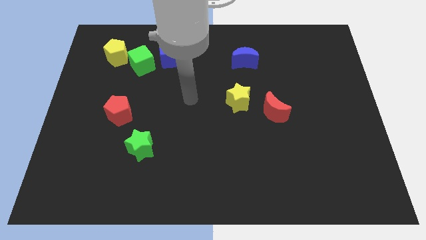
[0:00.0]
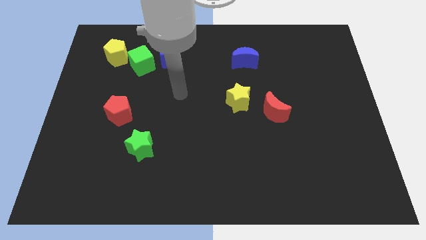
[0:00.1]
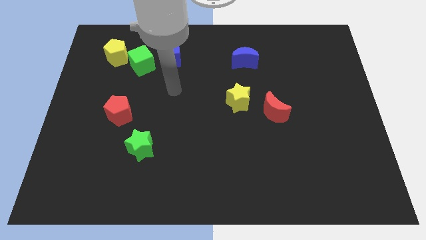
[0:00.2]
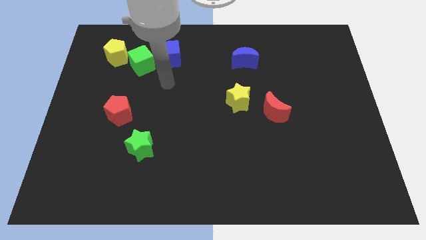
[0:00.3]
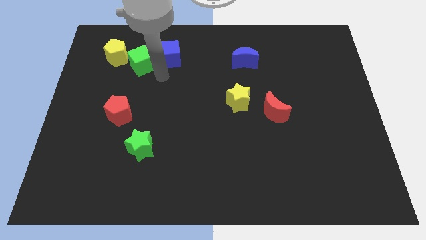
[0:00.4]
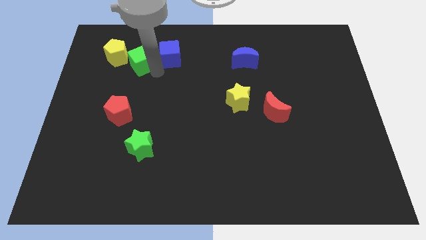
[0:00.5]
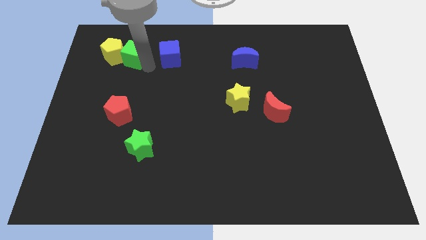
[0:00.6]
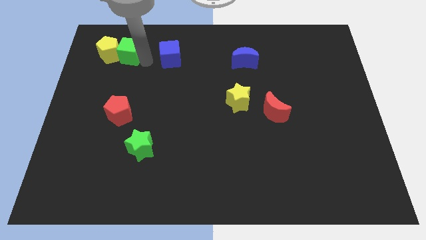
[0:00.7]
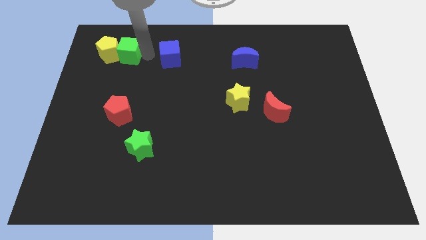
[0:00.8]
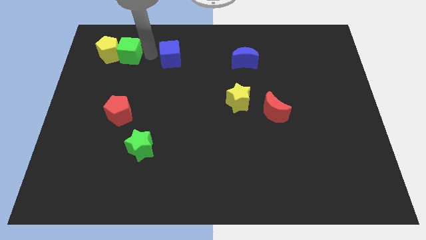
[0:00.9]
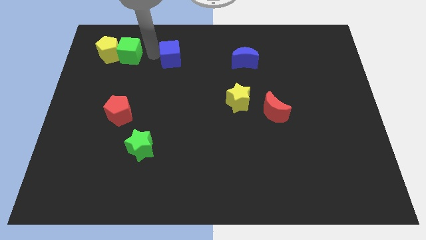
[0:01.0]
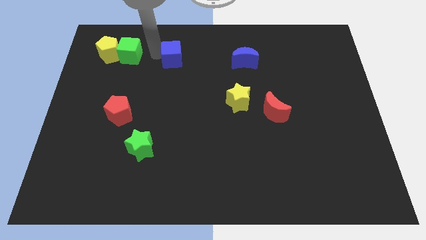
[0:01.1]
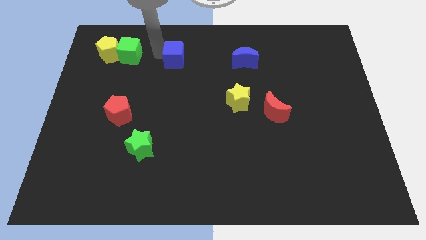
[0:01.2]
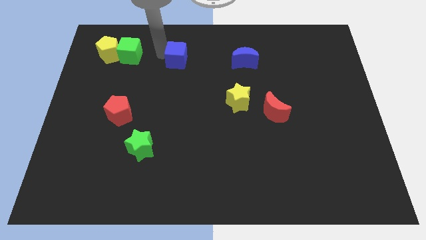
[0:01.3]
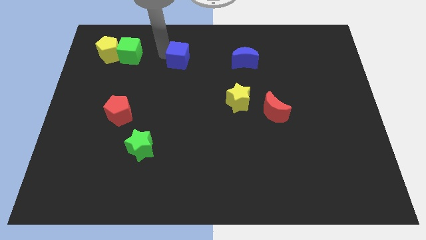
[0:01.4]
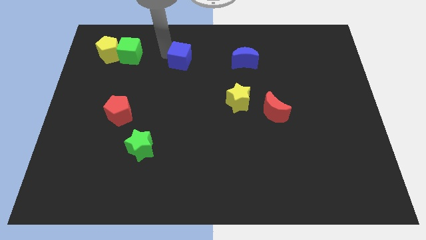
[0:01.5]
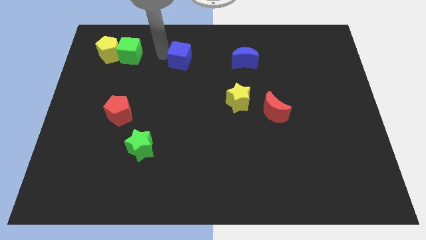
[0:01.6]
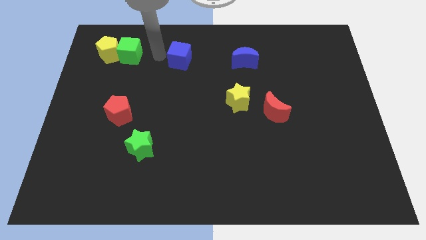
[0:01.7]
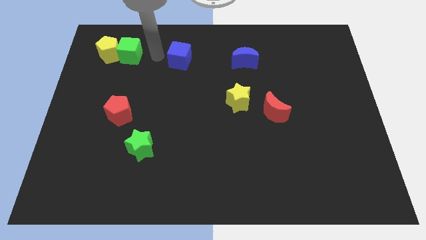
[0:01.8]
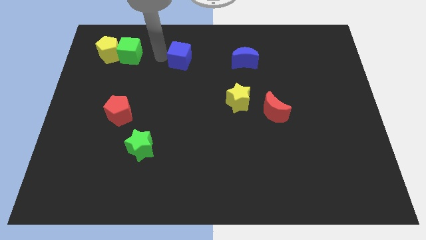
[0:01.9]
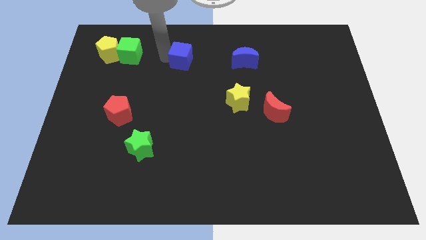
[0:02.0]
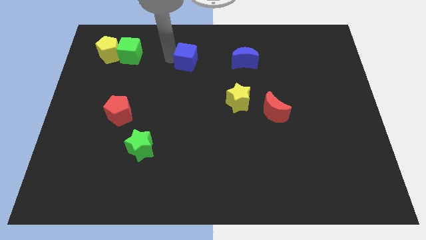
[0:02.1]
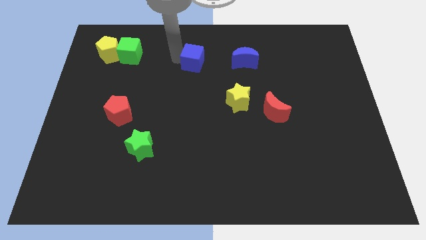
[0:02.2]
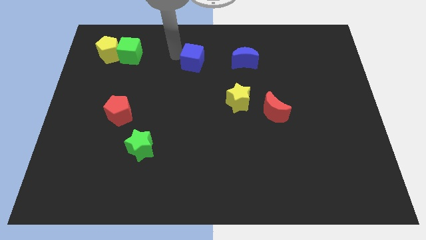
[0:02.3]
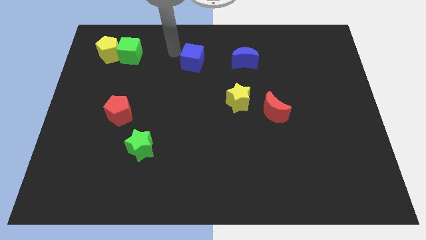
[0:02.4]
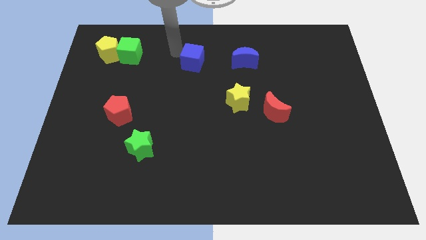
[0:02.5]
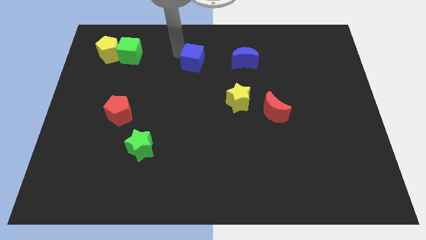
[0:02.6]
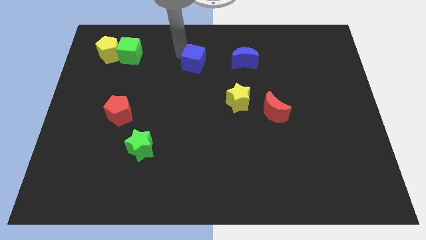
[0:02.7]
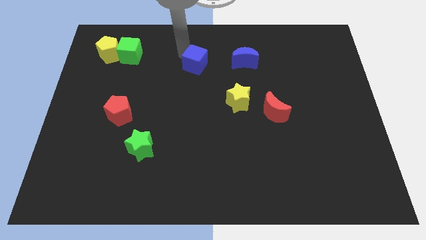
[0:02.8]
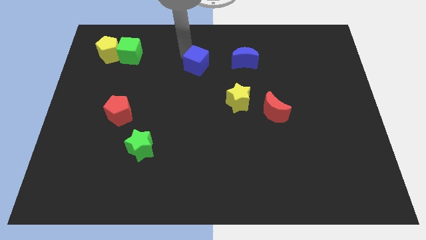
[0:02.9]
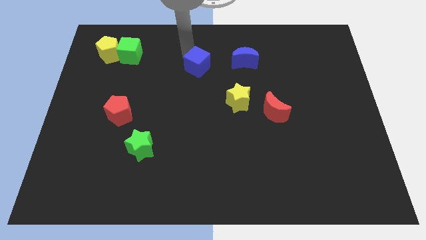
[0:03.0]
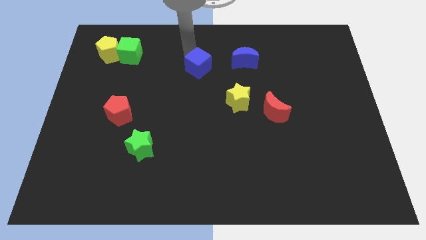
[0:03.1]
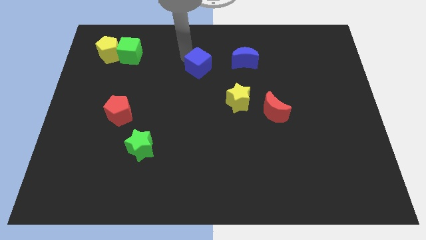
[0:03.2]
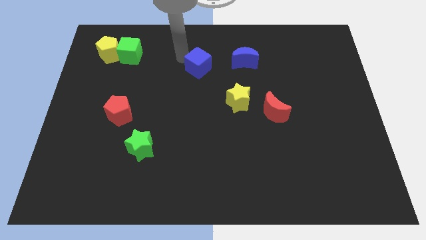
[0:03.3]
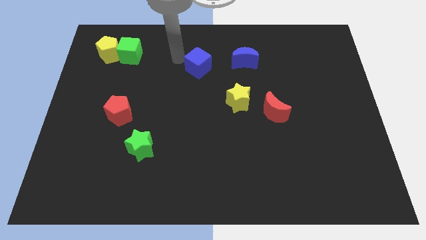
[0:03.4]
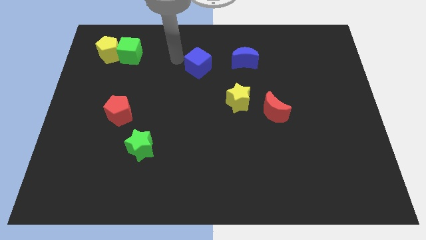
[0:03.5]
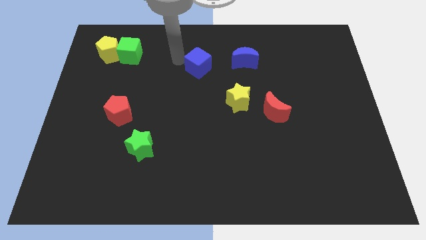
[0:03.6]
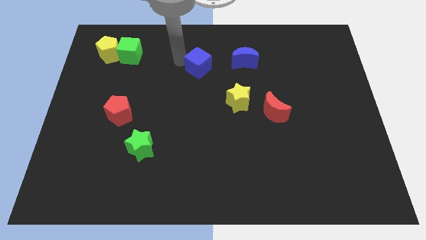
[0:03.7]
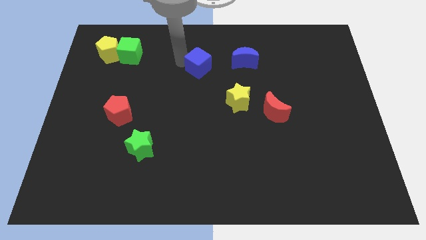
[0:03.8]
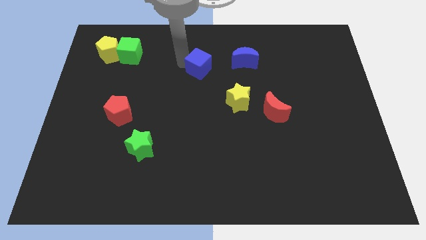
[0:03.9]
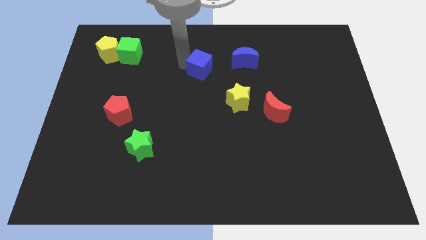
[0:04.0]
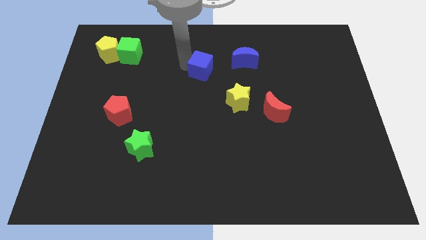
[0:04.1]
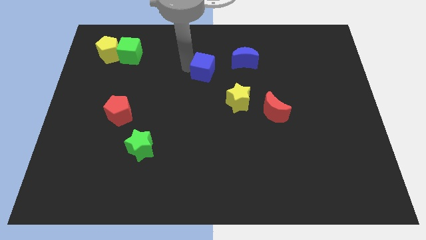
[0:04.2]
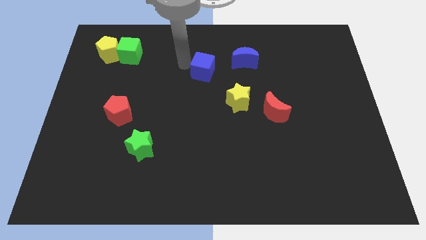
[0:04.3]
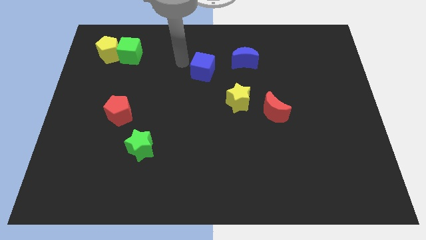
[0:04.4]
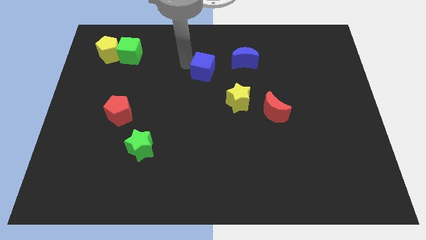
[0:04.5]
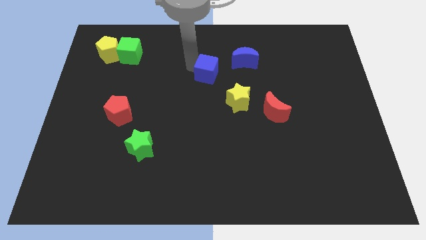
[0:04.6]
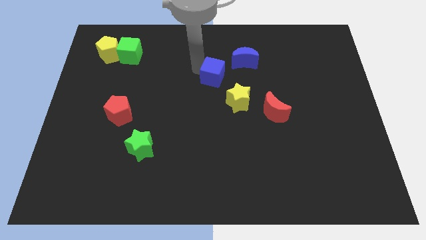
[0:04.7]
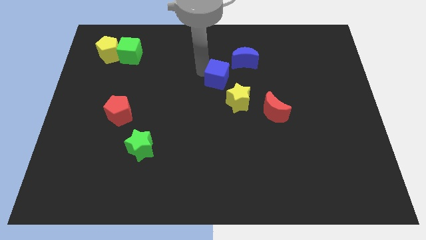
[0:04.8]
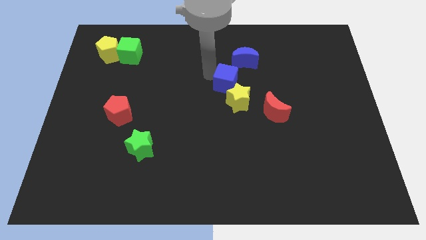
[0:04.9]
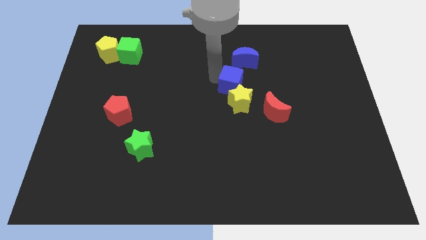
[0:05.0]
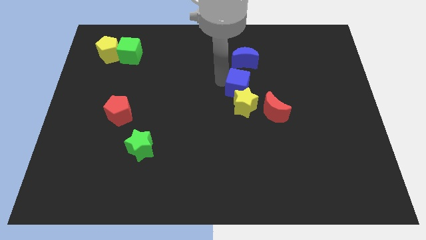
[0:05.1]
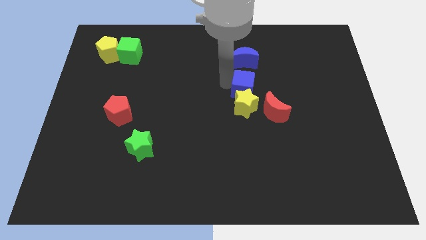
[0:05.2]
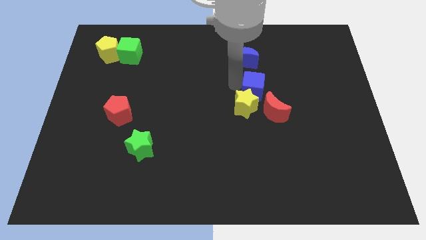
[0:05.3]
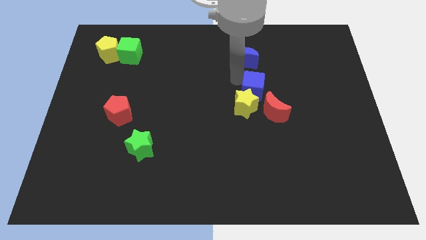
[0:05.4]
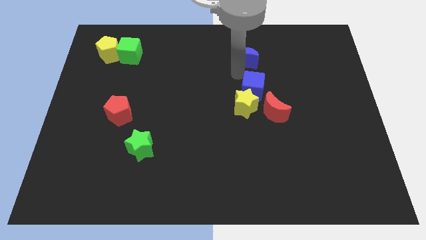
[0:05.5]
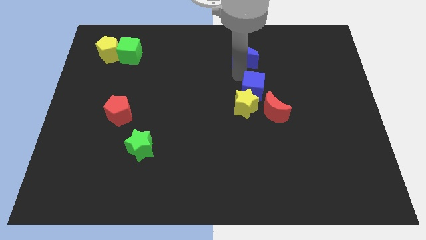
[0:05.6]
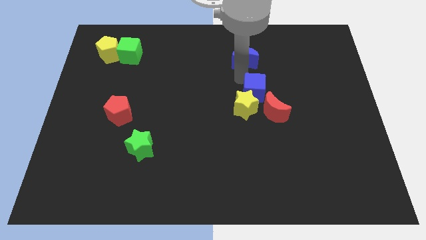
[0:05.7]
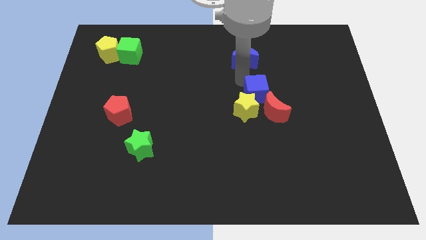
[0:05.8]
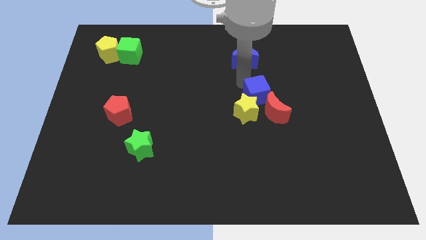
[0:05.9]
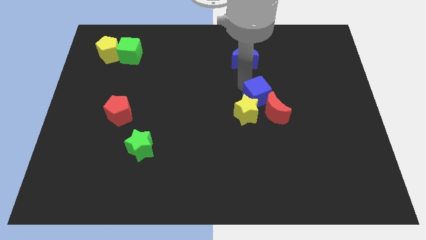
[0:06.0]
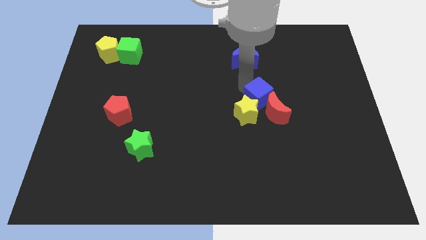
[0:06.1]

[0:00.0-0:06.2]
push the blue cube to the red moon
